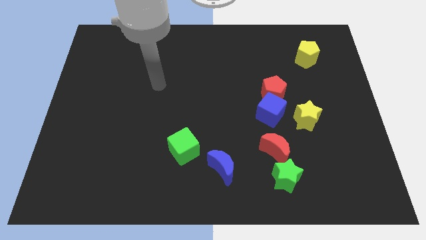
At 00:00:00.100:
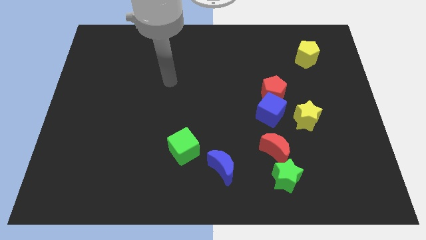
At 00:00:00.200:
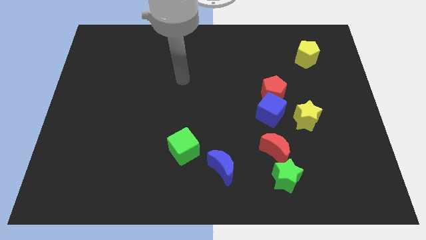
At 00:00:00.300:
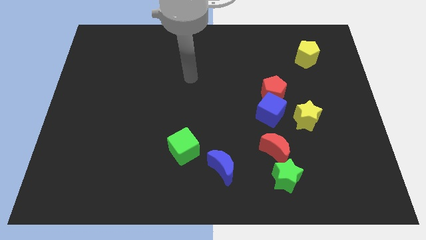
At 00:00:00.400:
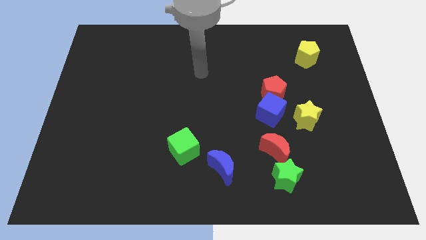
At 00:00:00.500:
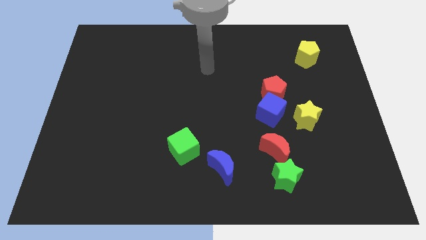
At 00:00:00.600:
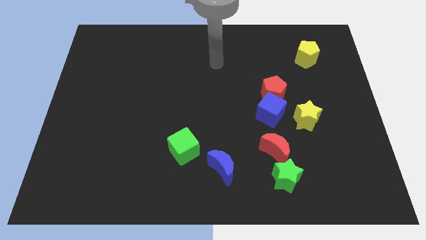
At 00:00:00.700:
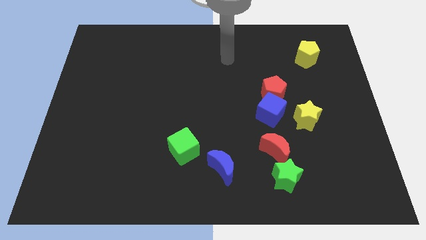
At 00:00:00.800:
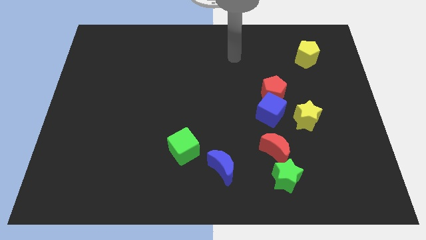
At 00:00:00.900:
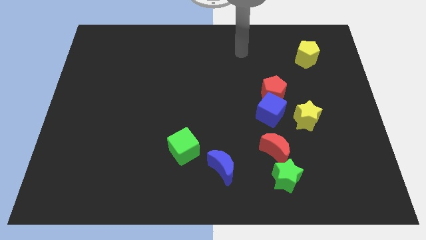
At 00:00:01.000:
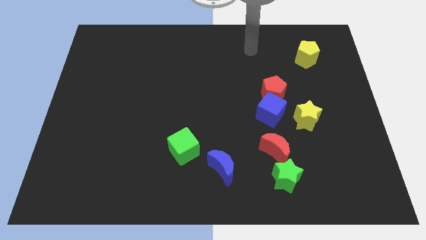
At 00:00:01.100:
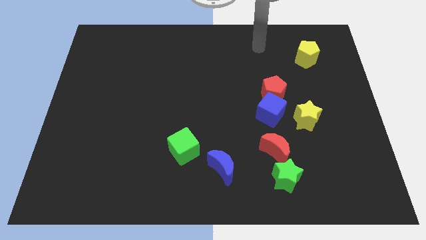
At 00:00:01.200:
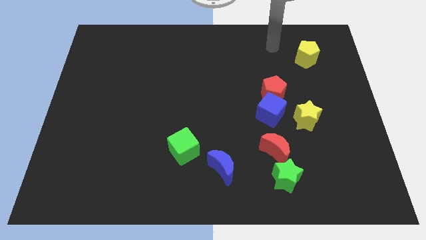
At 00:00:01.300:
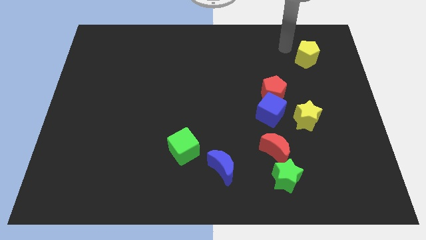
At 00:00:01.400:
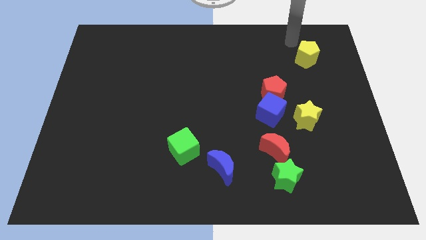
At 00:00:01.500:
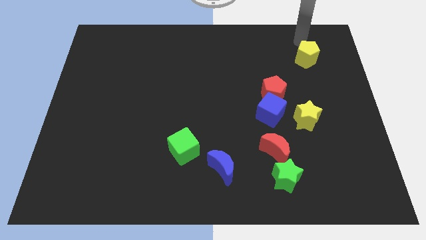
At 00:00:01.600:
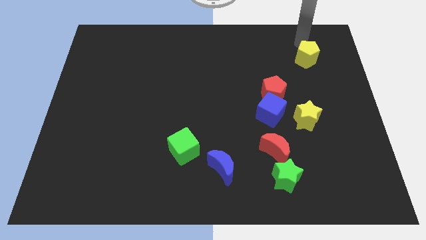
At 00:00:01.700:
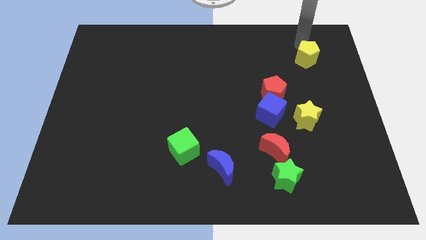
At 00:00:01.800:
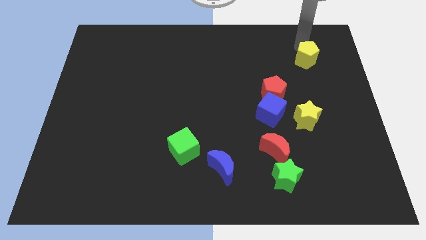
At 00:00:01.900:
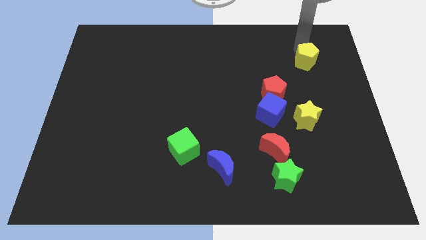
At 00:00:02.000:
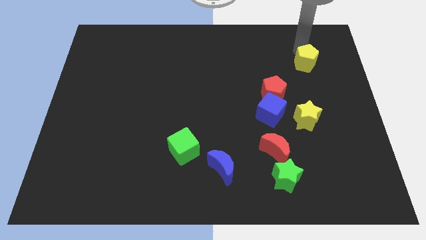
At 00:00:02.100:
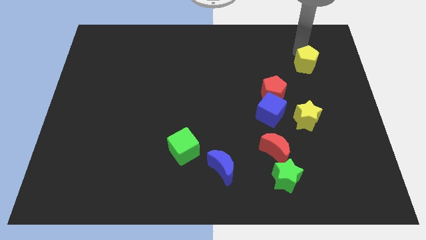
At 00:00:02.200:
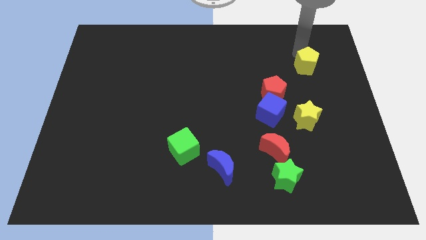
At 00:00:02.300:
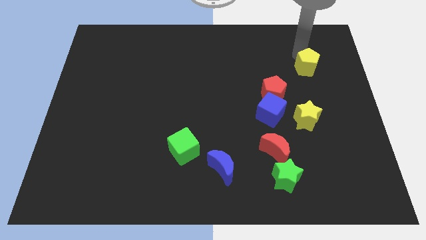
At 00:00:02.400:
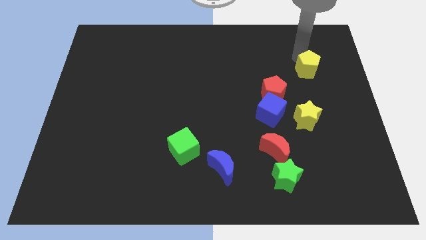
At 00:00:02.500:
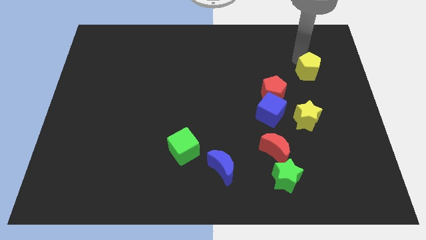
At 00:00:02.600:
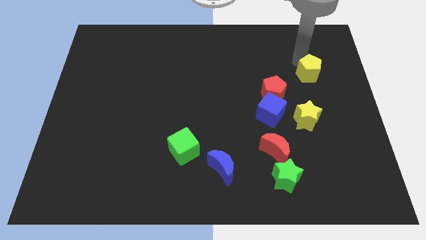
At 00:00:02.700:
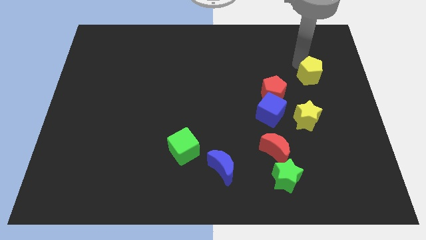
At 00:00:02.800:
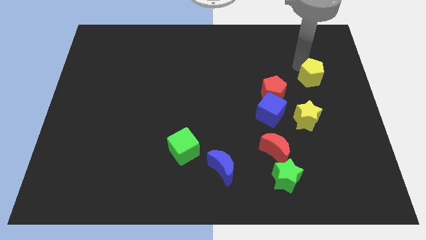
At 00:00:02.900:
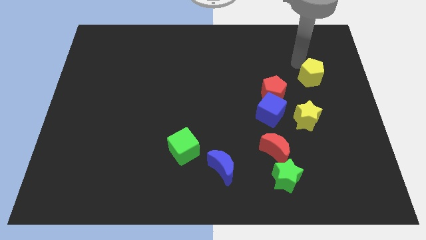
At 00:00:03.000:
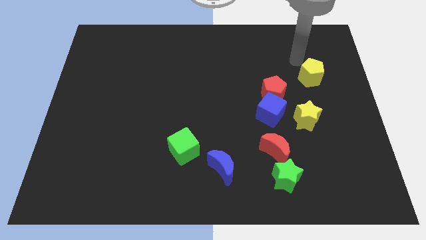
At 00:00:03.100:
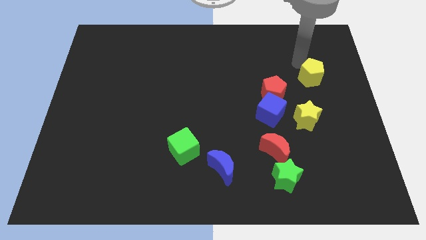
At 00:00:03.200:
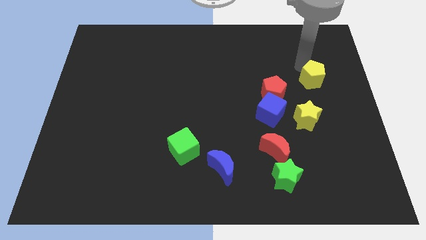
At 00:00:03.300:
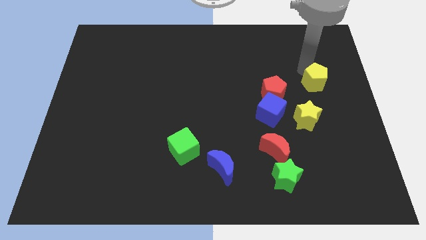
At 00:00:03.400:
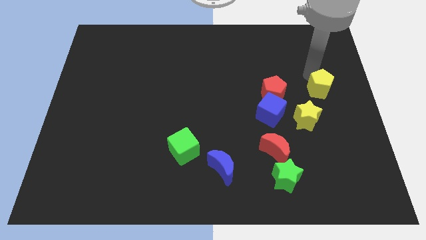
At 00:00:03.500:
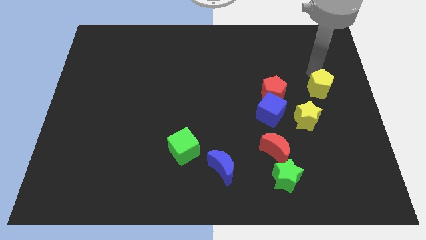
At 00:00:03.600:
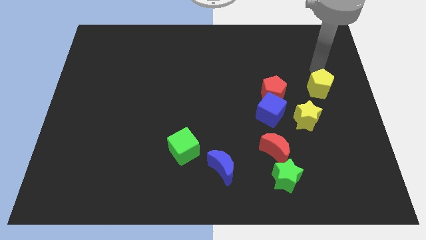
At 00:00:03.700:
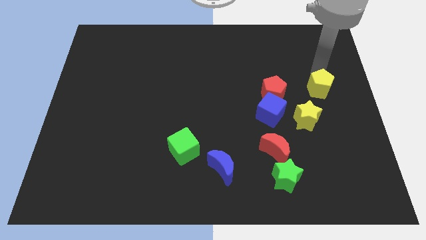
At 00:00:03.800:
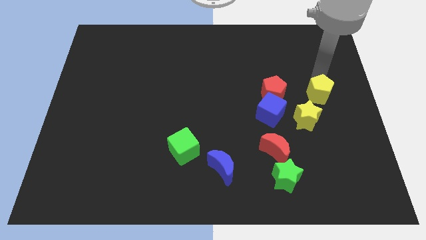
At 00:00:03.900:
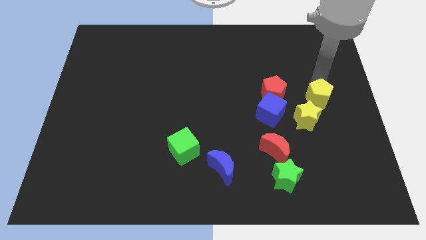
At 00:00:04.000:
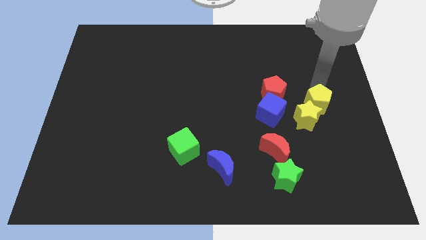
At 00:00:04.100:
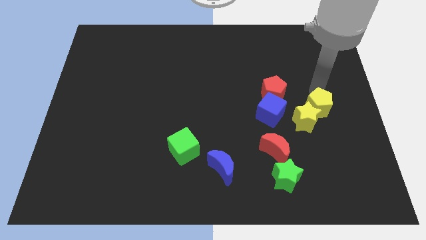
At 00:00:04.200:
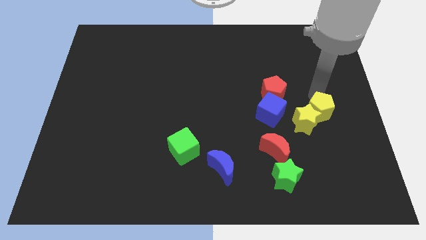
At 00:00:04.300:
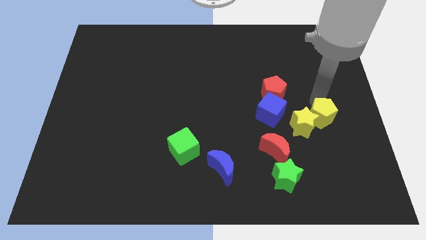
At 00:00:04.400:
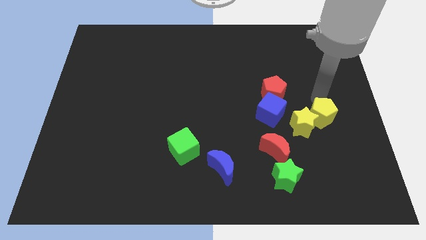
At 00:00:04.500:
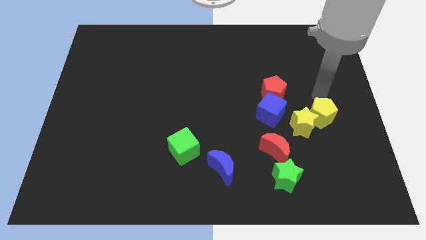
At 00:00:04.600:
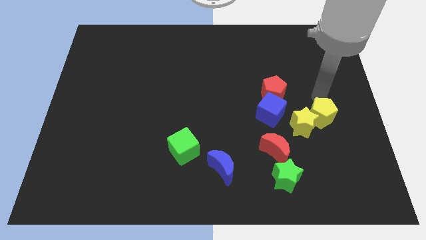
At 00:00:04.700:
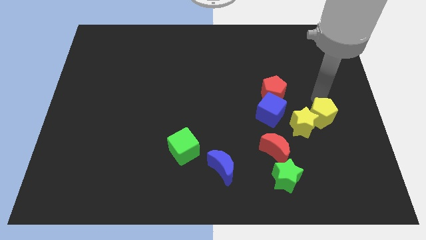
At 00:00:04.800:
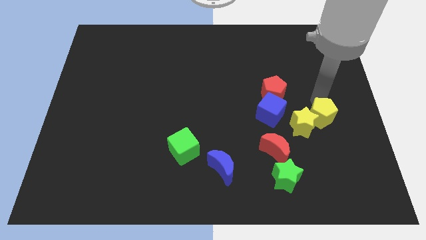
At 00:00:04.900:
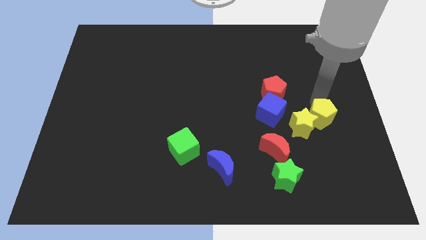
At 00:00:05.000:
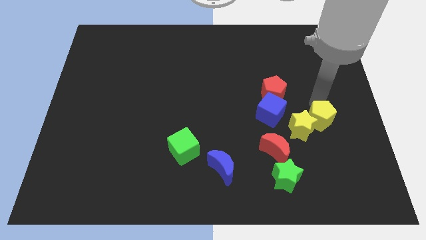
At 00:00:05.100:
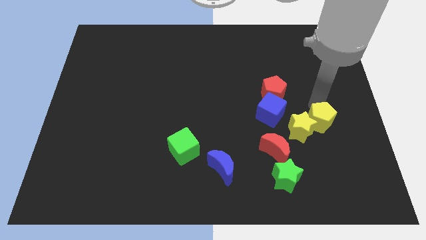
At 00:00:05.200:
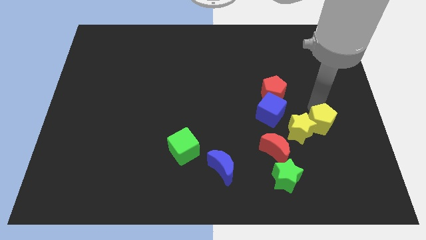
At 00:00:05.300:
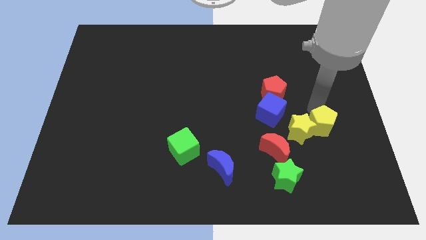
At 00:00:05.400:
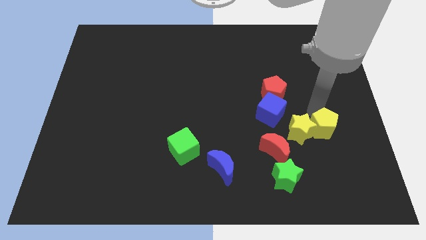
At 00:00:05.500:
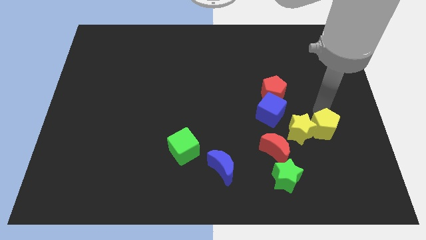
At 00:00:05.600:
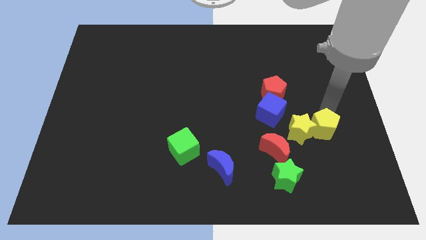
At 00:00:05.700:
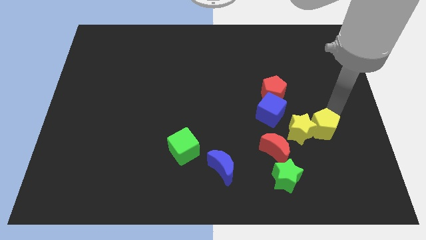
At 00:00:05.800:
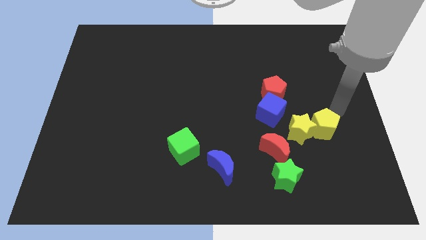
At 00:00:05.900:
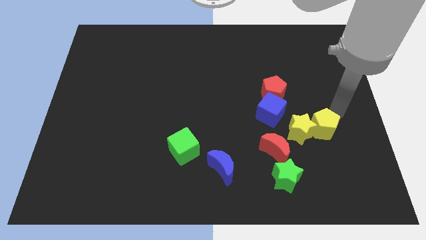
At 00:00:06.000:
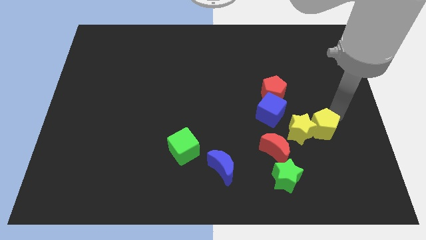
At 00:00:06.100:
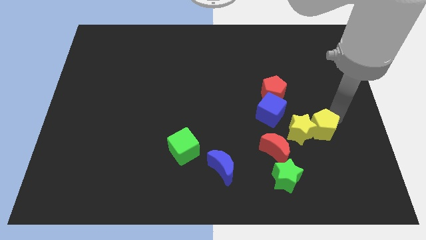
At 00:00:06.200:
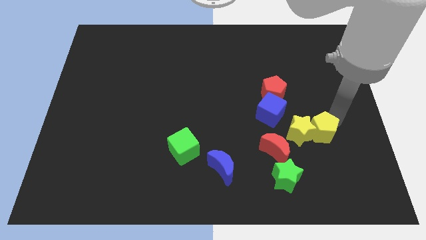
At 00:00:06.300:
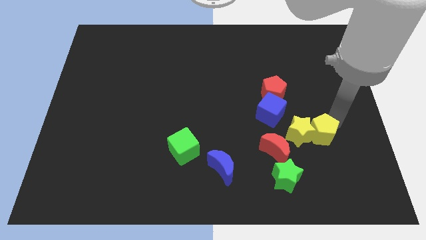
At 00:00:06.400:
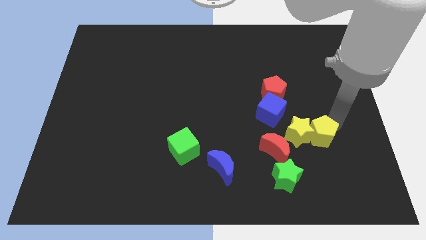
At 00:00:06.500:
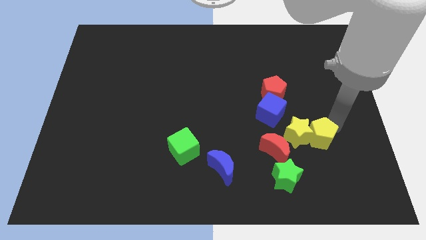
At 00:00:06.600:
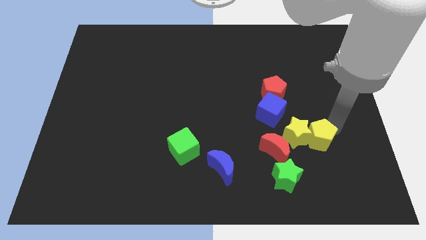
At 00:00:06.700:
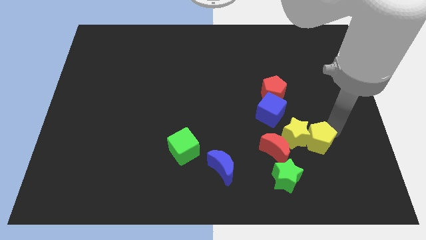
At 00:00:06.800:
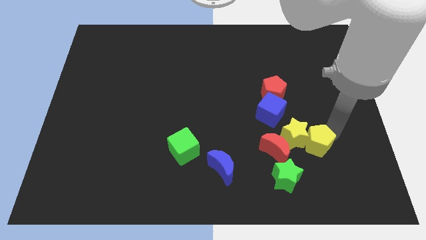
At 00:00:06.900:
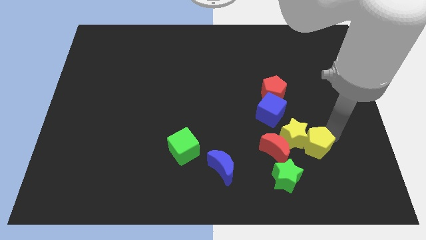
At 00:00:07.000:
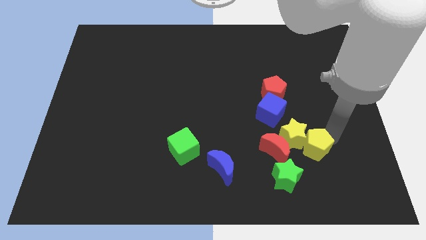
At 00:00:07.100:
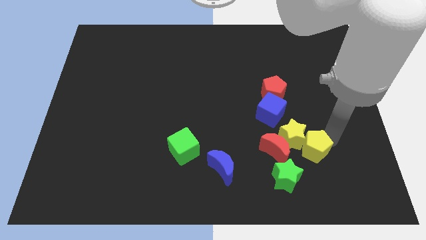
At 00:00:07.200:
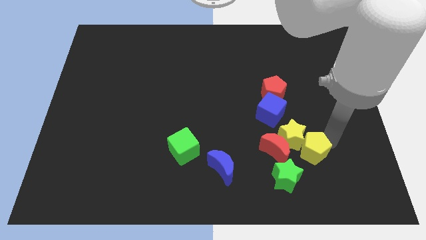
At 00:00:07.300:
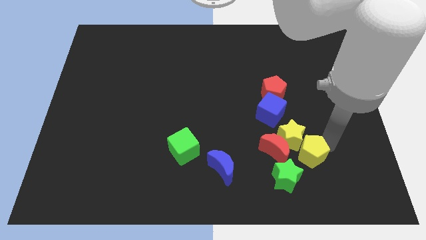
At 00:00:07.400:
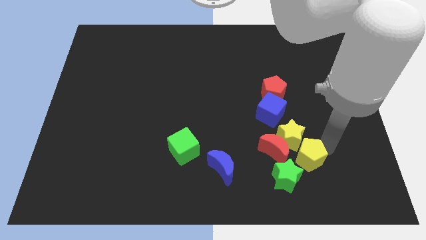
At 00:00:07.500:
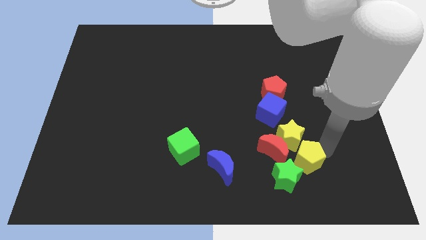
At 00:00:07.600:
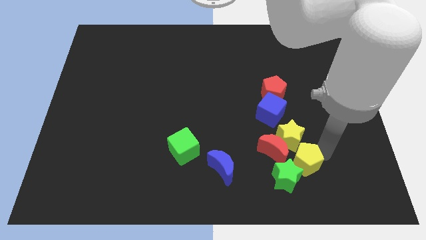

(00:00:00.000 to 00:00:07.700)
move the yellow pentagon close to the green star

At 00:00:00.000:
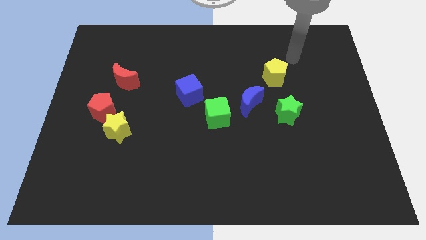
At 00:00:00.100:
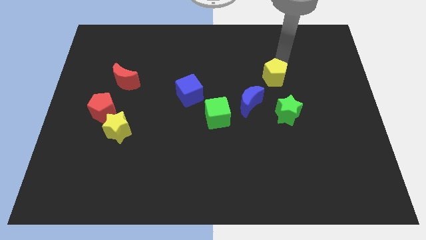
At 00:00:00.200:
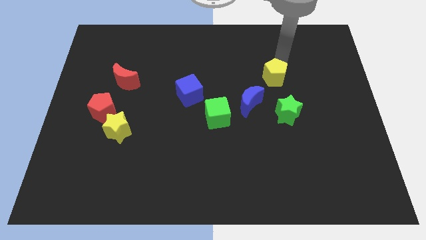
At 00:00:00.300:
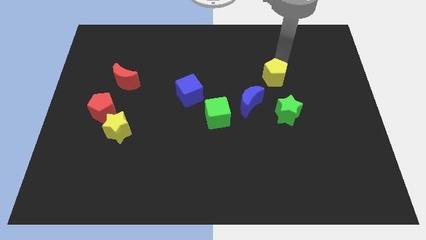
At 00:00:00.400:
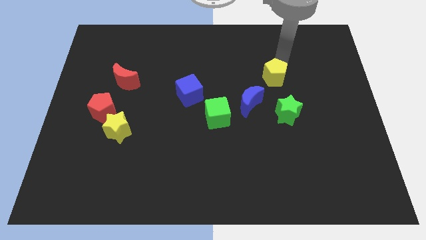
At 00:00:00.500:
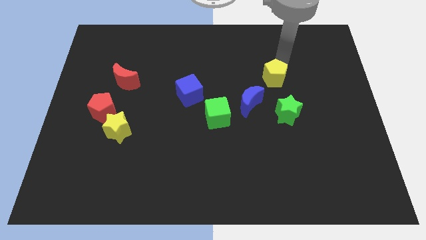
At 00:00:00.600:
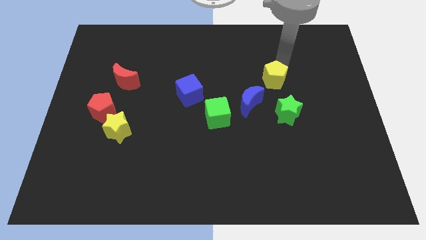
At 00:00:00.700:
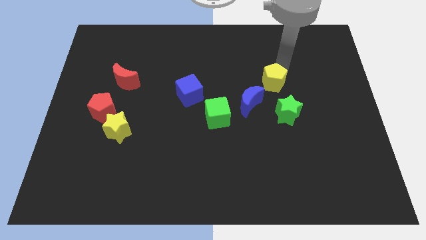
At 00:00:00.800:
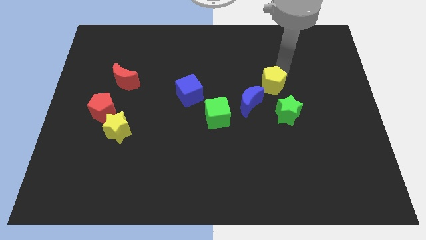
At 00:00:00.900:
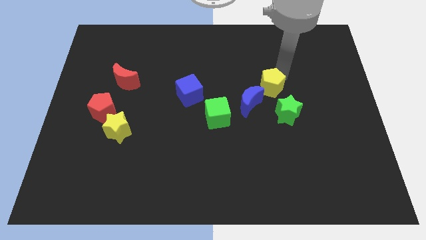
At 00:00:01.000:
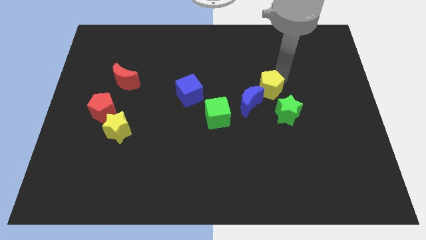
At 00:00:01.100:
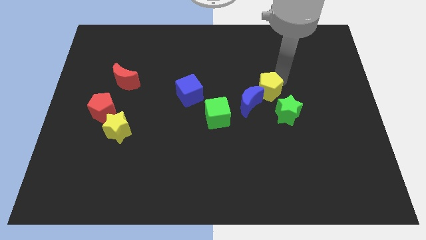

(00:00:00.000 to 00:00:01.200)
move the yellow pentagon to the blue moon
